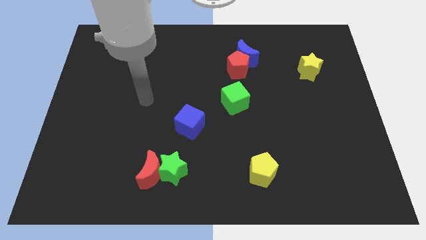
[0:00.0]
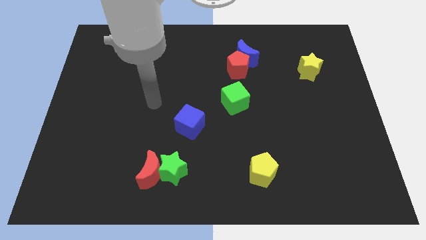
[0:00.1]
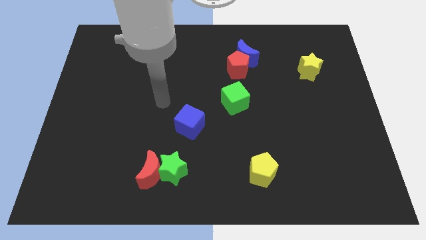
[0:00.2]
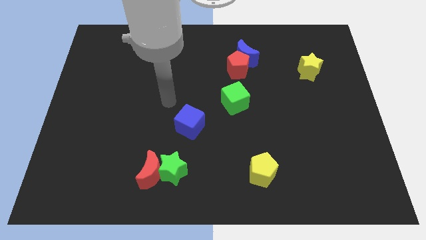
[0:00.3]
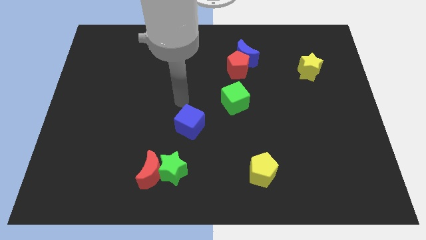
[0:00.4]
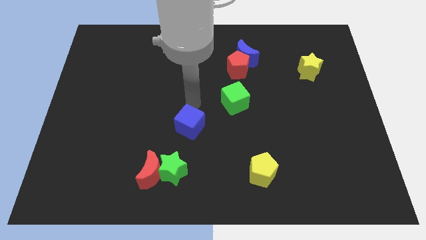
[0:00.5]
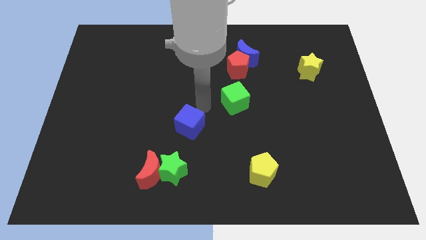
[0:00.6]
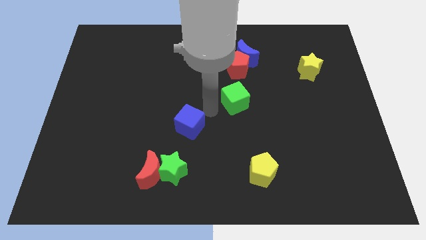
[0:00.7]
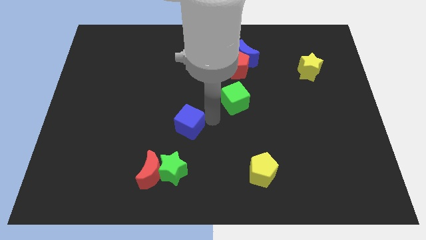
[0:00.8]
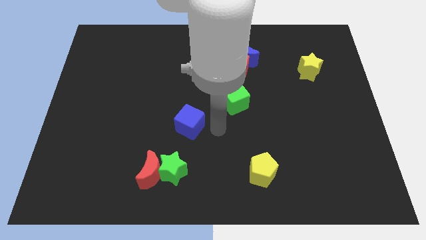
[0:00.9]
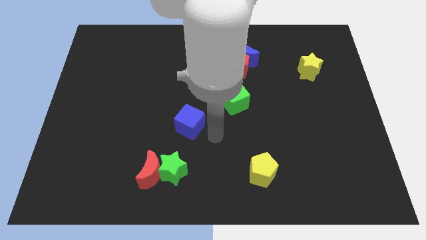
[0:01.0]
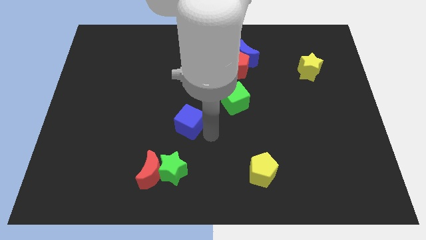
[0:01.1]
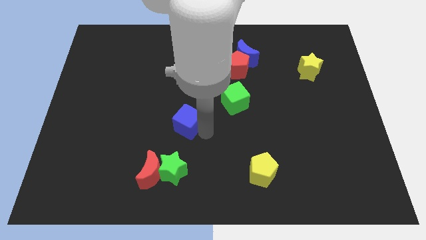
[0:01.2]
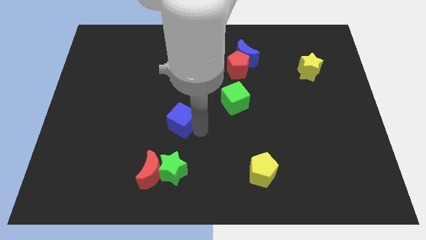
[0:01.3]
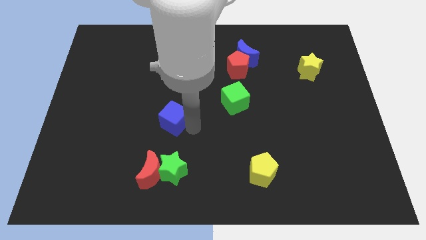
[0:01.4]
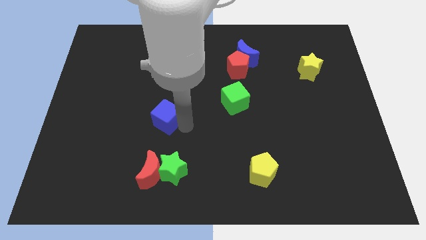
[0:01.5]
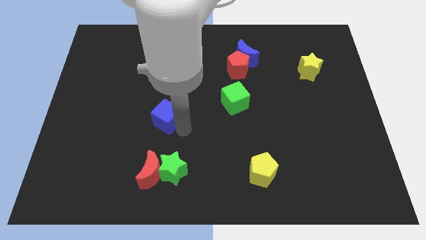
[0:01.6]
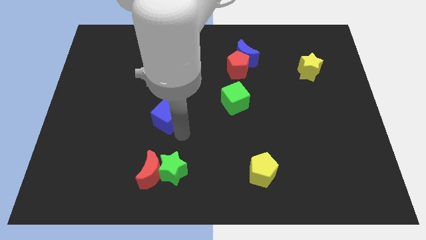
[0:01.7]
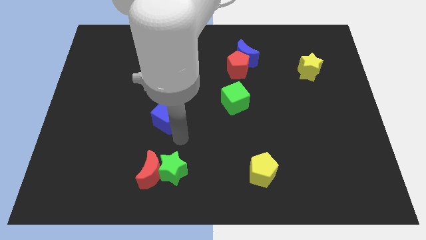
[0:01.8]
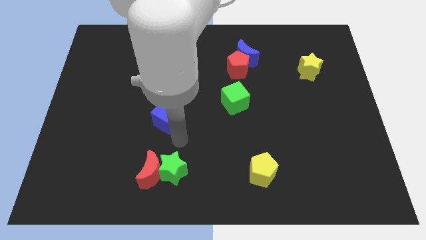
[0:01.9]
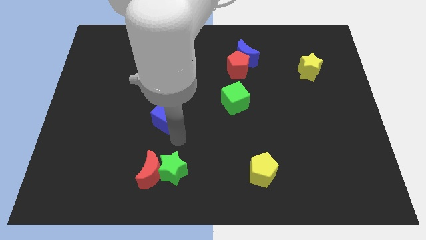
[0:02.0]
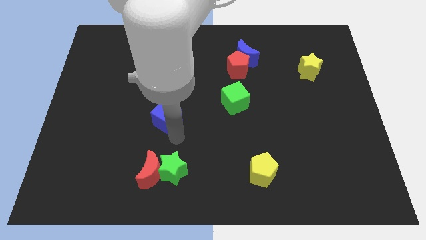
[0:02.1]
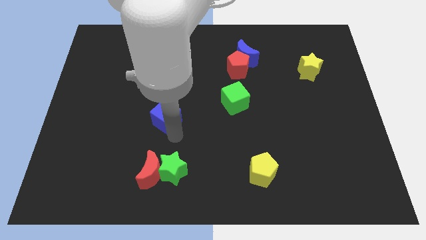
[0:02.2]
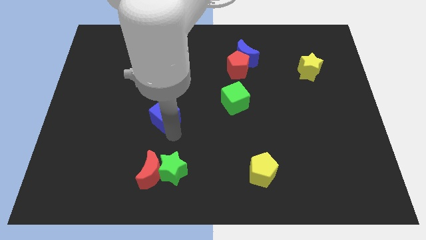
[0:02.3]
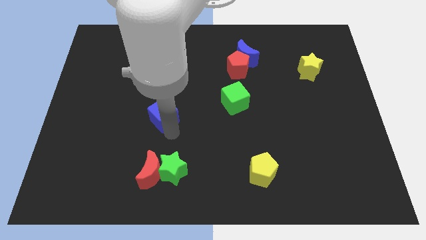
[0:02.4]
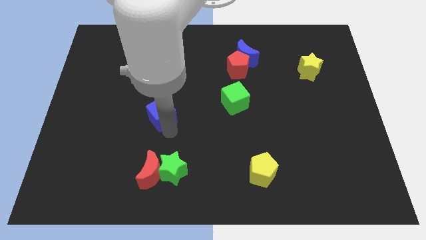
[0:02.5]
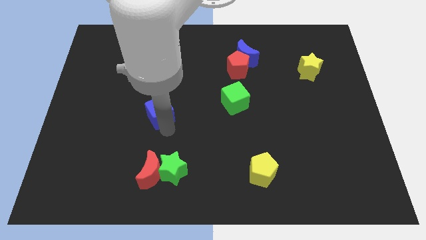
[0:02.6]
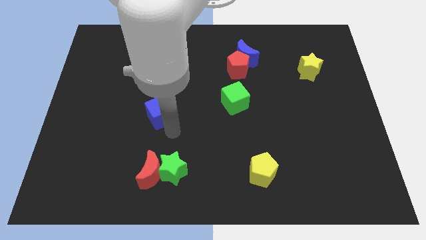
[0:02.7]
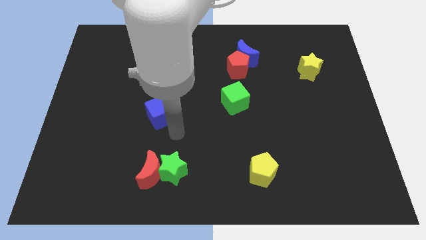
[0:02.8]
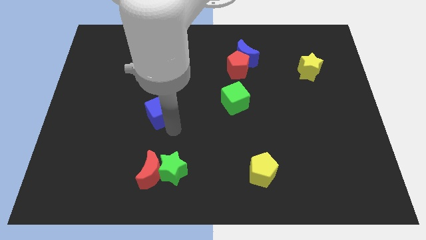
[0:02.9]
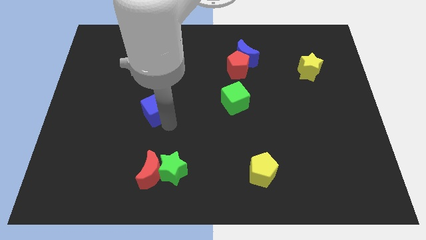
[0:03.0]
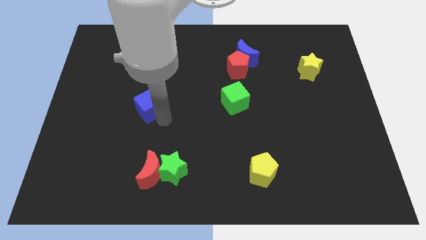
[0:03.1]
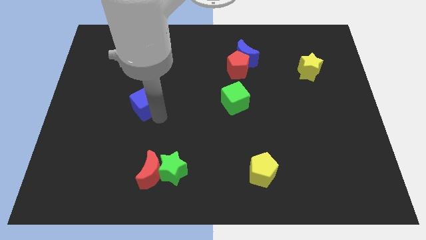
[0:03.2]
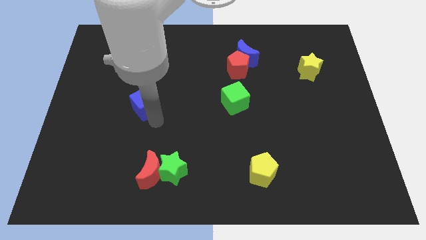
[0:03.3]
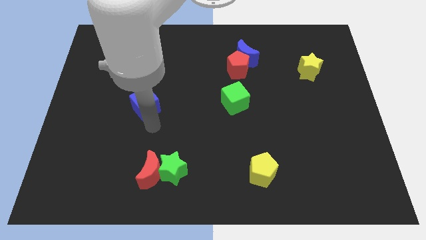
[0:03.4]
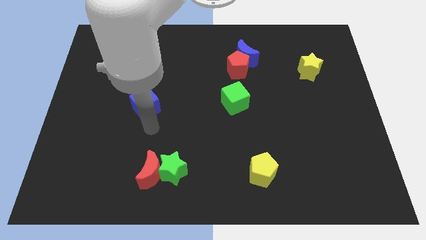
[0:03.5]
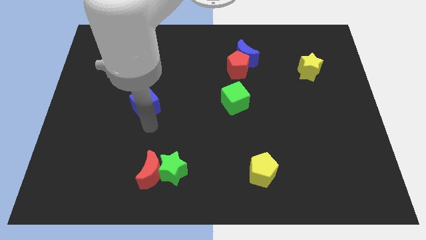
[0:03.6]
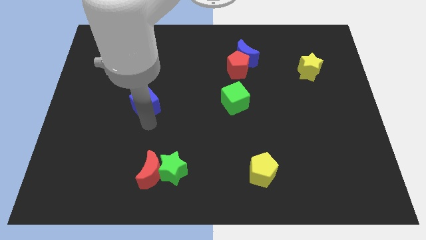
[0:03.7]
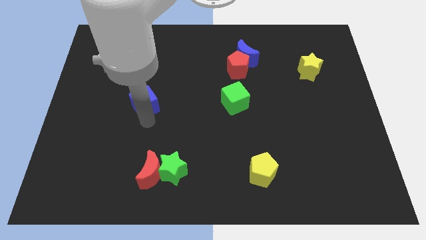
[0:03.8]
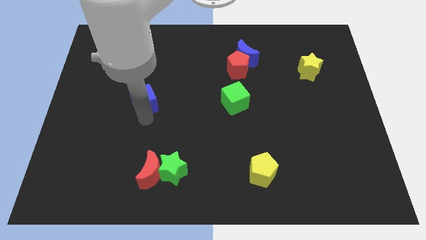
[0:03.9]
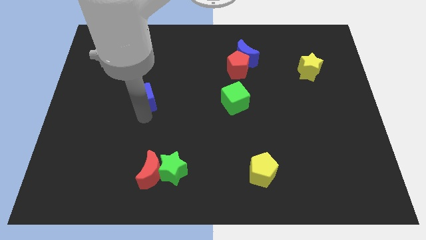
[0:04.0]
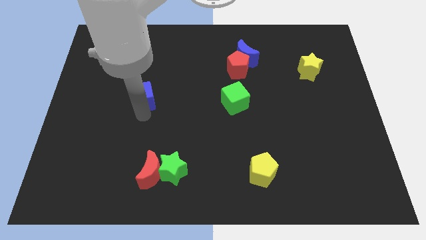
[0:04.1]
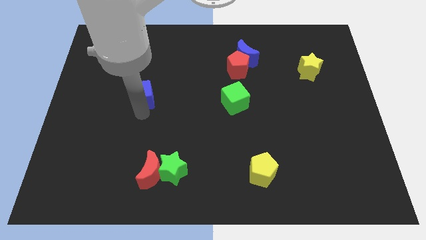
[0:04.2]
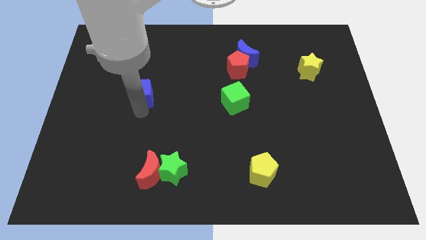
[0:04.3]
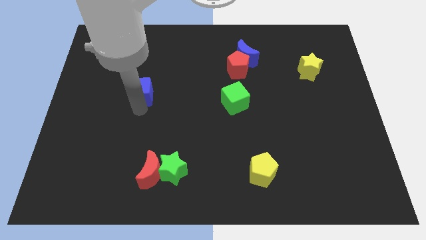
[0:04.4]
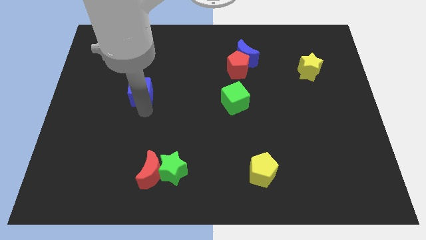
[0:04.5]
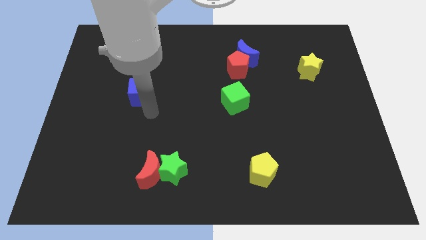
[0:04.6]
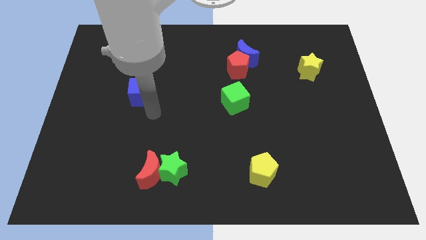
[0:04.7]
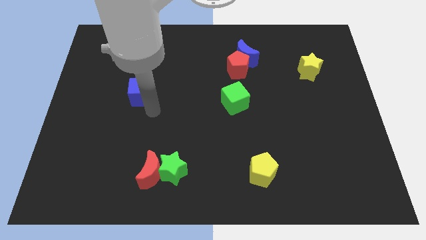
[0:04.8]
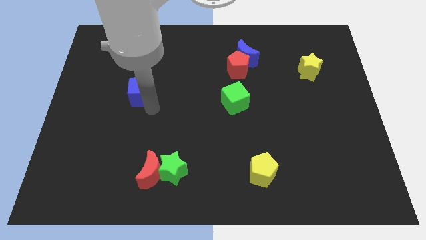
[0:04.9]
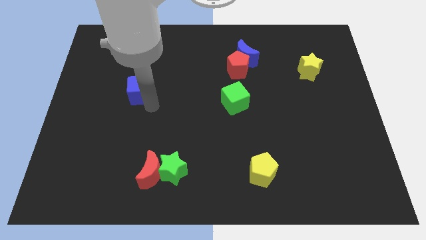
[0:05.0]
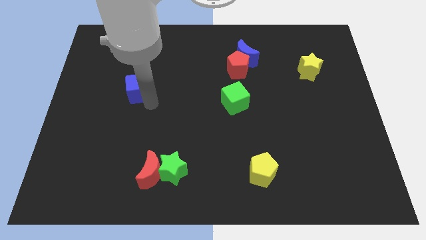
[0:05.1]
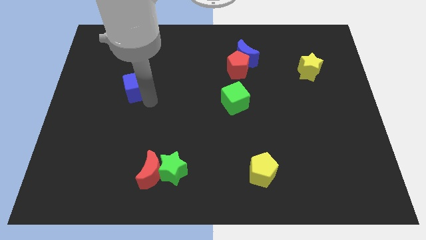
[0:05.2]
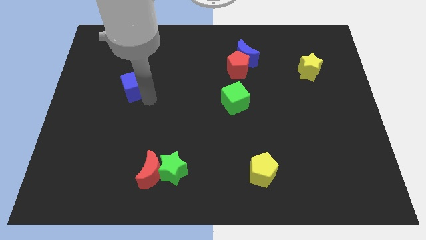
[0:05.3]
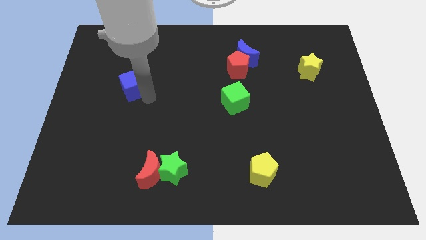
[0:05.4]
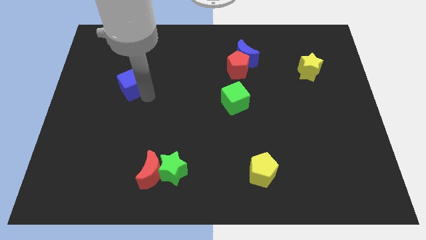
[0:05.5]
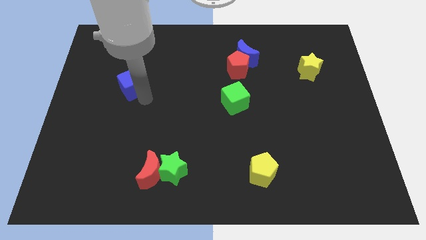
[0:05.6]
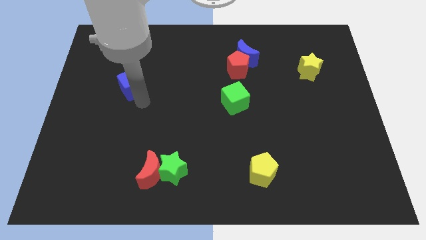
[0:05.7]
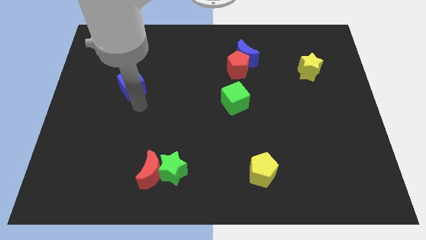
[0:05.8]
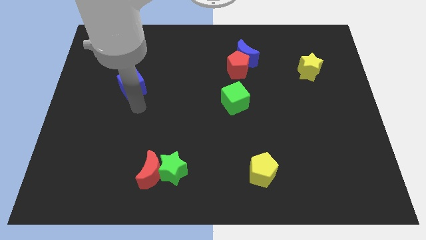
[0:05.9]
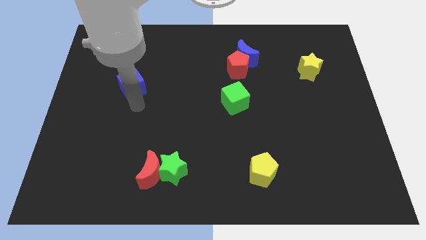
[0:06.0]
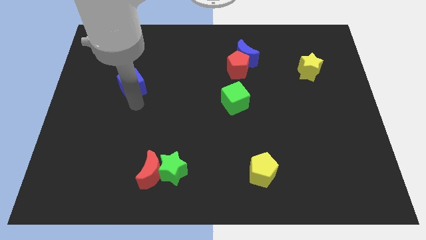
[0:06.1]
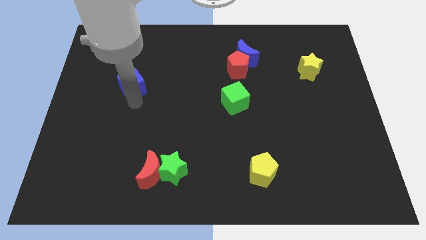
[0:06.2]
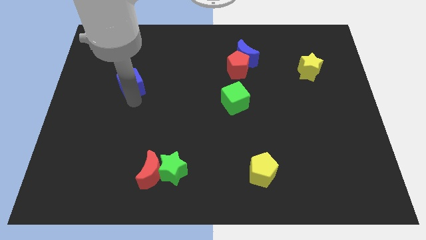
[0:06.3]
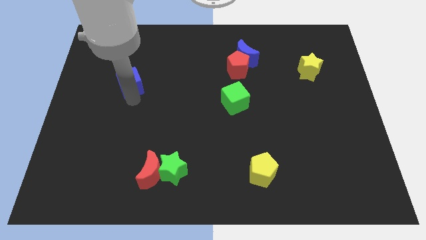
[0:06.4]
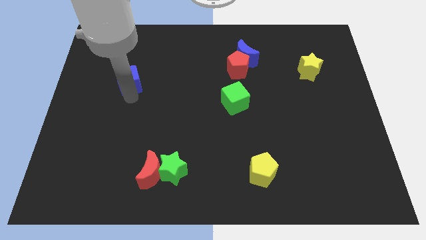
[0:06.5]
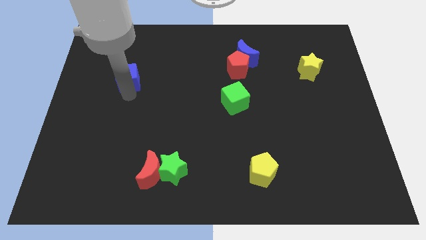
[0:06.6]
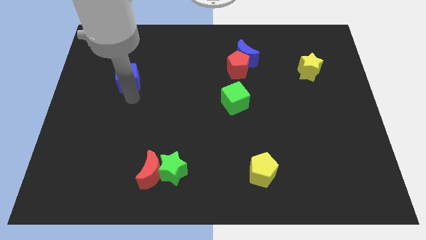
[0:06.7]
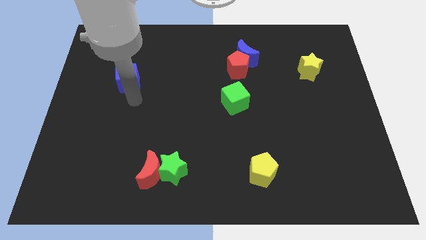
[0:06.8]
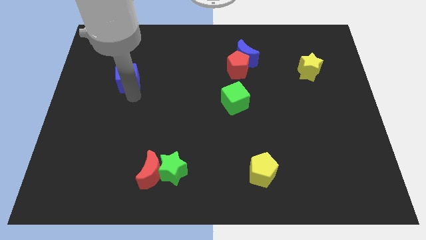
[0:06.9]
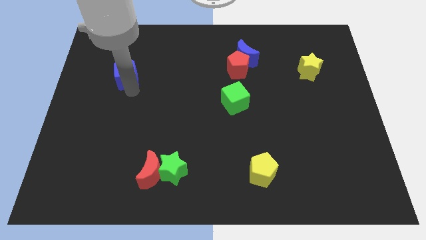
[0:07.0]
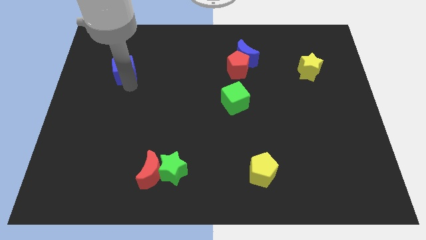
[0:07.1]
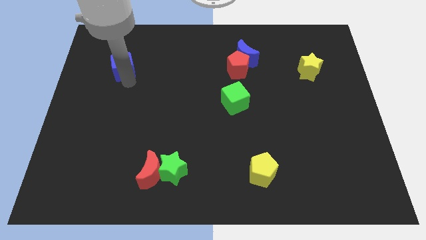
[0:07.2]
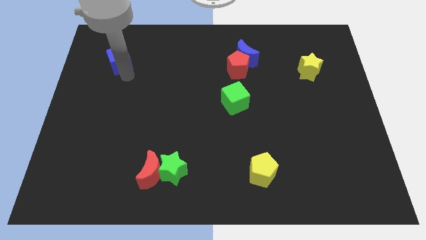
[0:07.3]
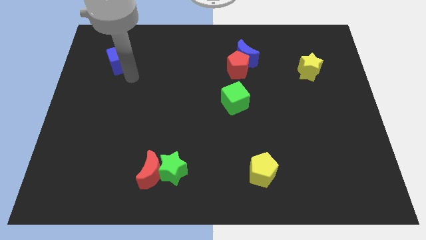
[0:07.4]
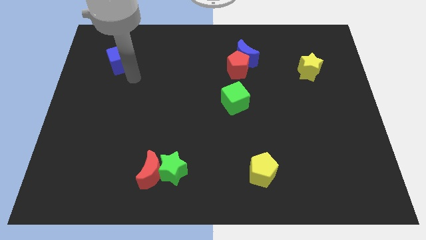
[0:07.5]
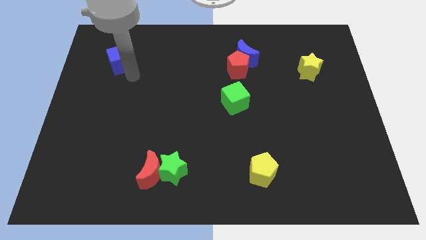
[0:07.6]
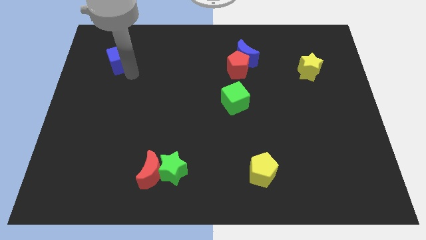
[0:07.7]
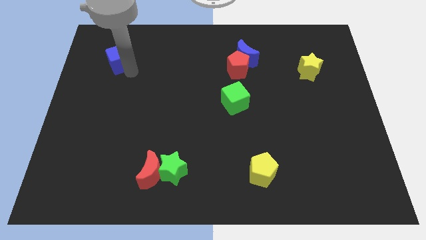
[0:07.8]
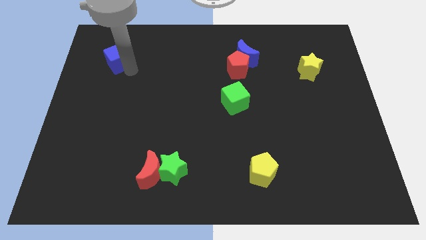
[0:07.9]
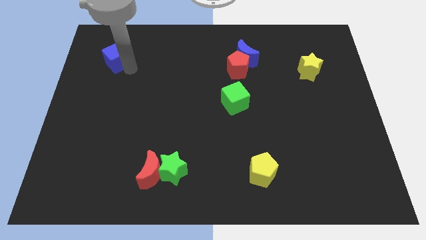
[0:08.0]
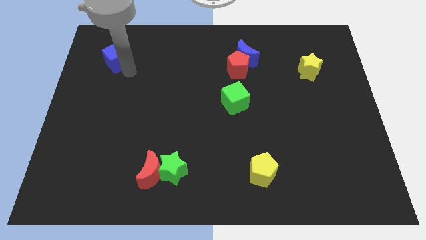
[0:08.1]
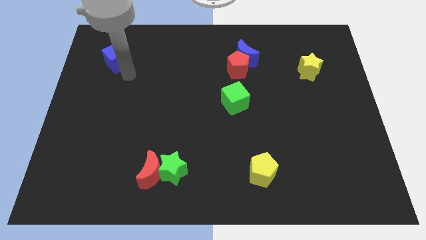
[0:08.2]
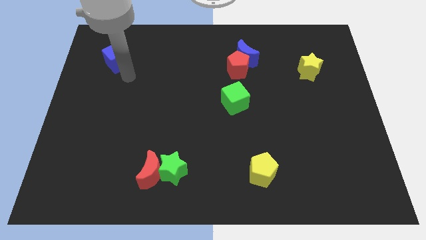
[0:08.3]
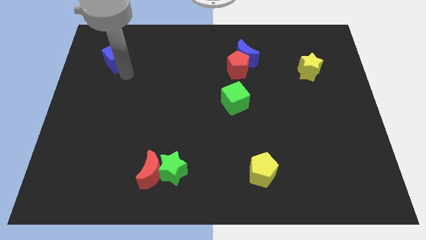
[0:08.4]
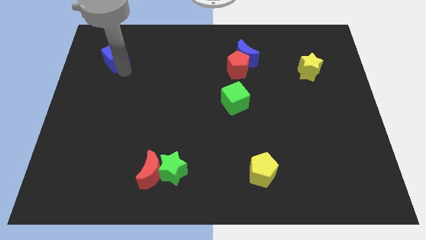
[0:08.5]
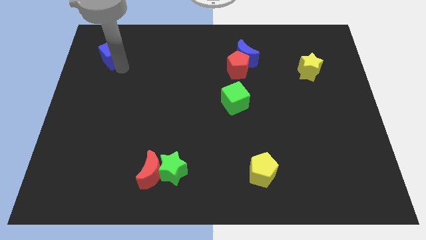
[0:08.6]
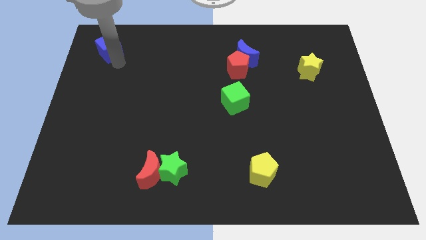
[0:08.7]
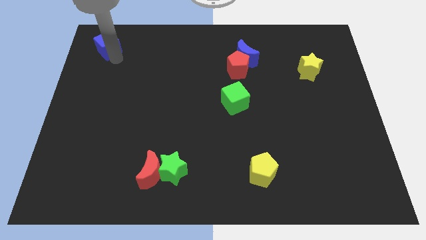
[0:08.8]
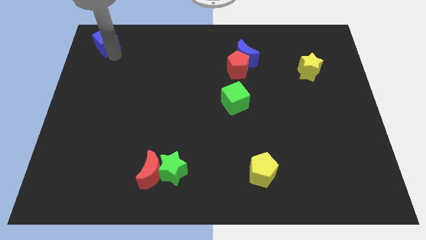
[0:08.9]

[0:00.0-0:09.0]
put the blue cube to the top left corner
